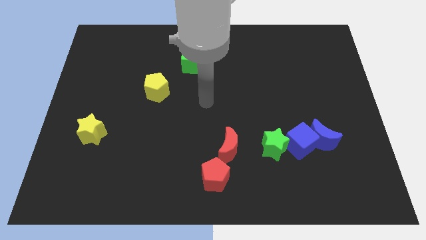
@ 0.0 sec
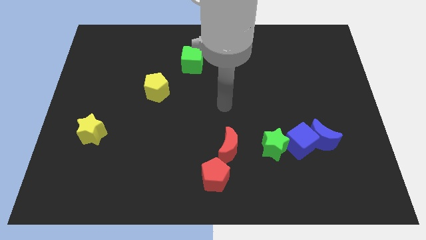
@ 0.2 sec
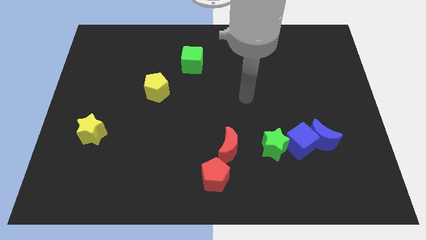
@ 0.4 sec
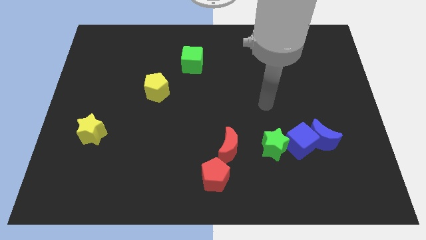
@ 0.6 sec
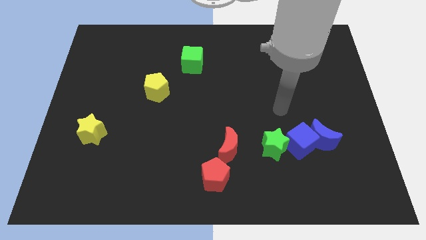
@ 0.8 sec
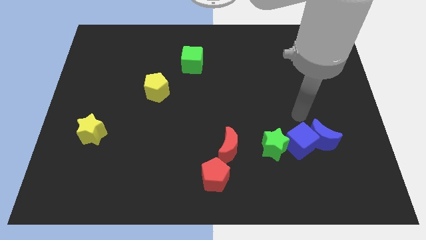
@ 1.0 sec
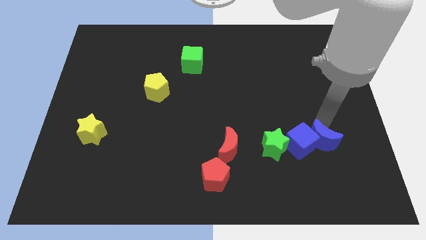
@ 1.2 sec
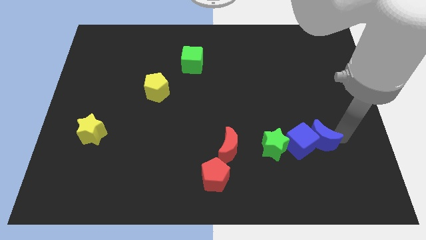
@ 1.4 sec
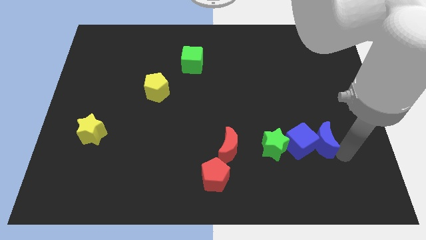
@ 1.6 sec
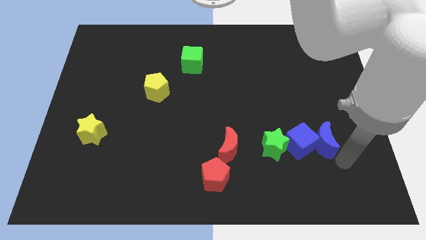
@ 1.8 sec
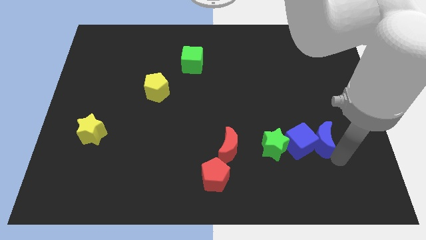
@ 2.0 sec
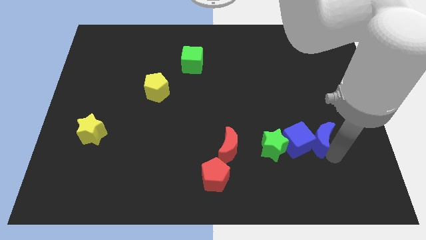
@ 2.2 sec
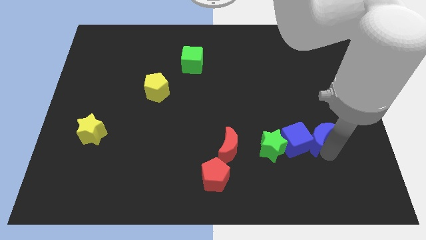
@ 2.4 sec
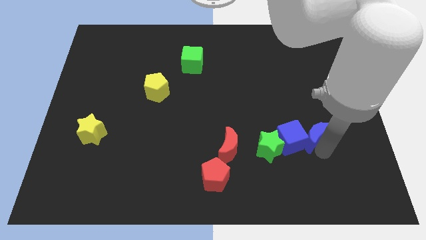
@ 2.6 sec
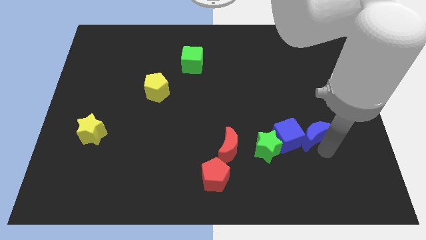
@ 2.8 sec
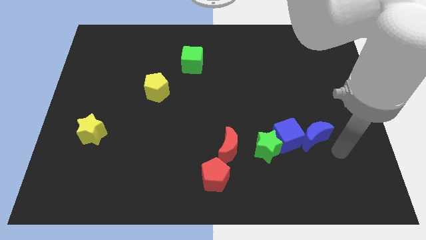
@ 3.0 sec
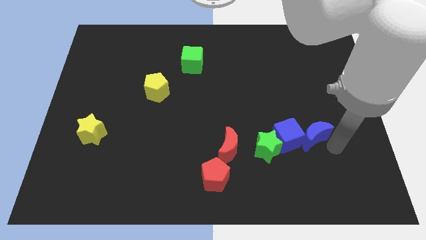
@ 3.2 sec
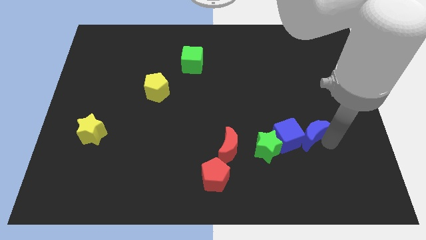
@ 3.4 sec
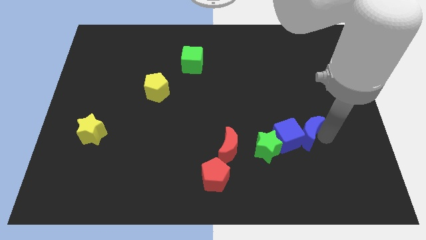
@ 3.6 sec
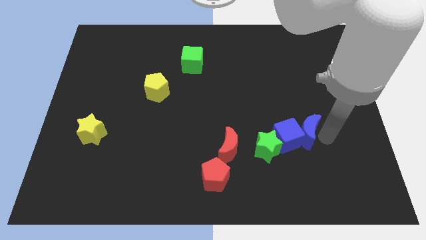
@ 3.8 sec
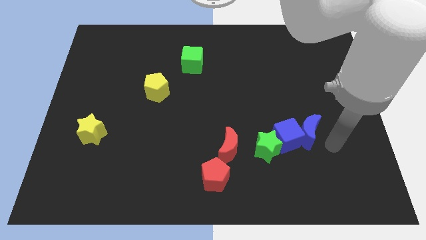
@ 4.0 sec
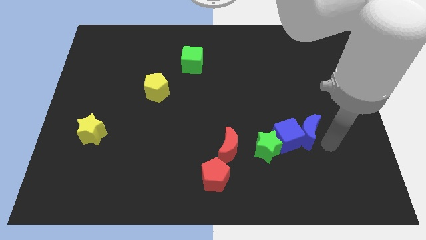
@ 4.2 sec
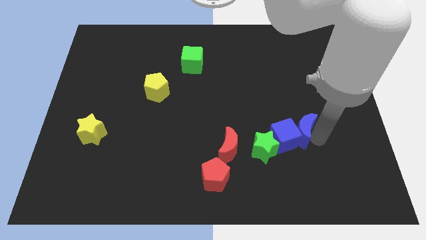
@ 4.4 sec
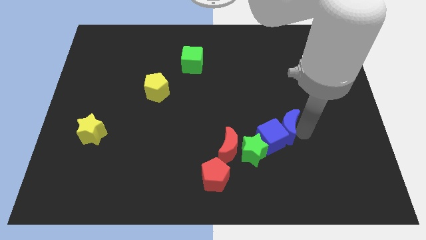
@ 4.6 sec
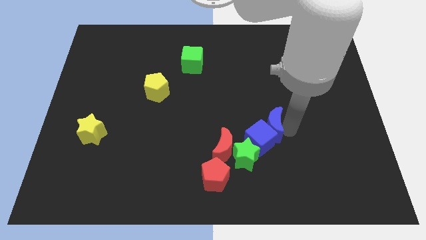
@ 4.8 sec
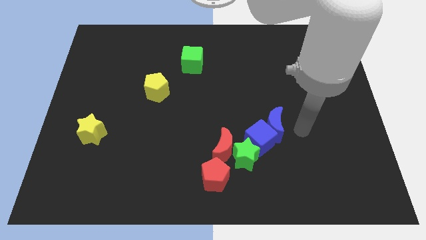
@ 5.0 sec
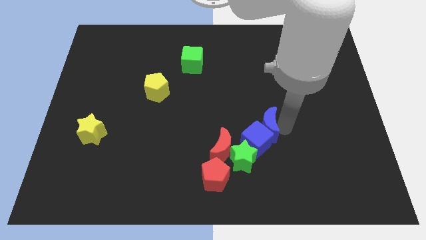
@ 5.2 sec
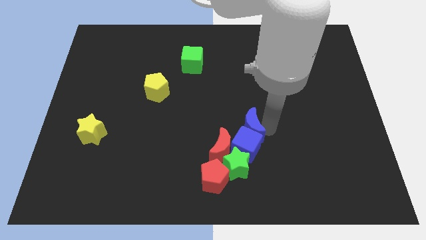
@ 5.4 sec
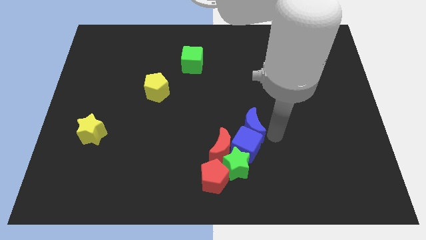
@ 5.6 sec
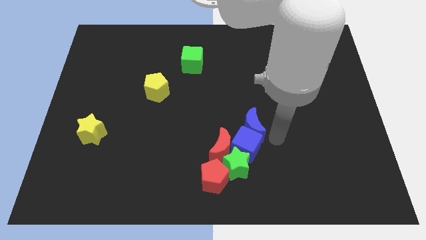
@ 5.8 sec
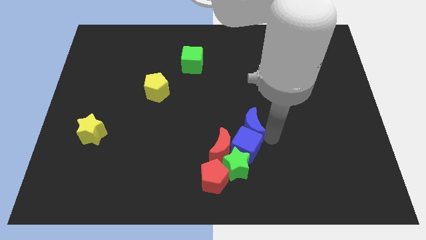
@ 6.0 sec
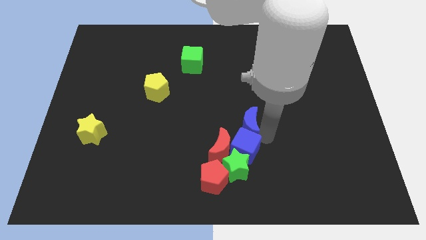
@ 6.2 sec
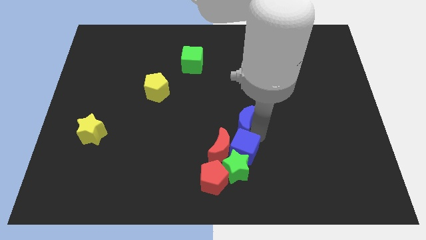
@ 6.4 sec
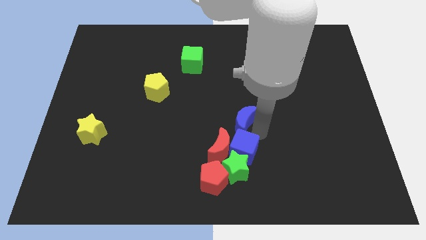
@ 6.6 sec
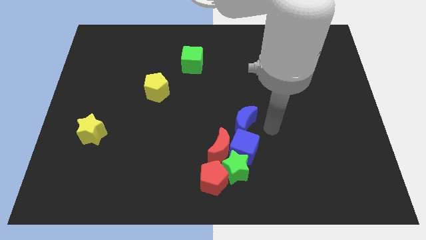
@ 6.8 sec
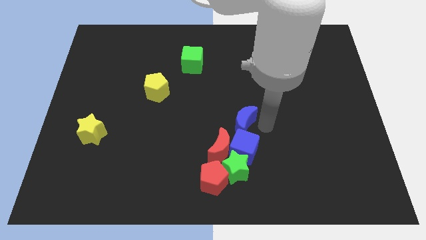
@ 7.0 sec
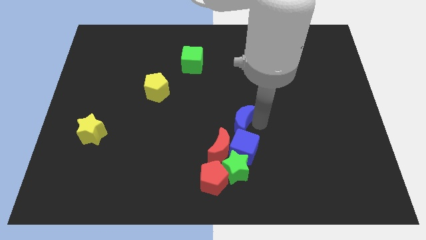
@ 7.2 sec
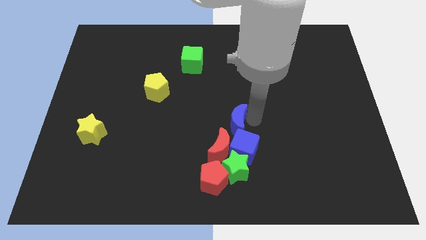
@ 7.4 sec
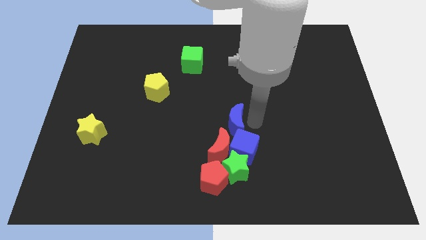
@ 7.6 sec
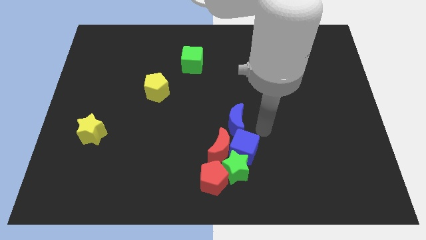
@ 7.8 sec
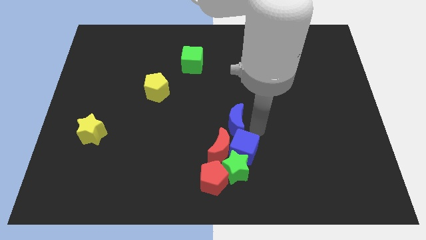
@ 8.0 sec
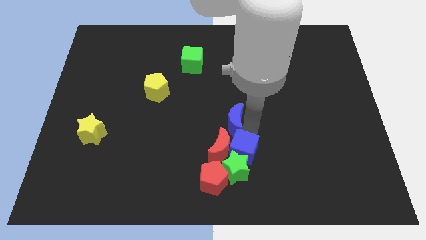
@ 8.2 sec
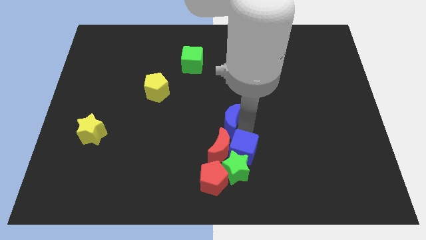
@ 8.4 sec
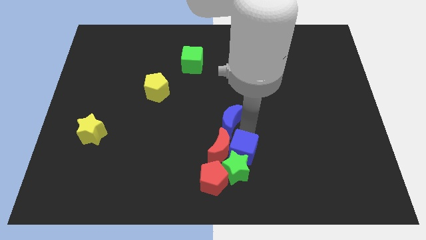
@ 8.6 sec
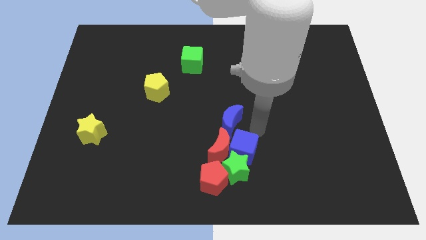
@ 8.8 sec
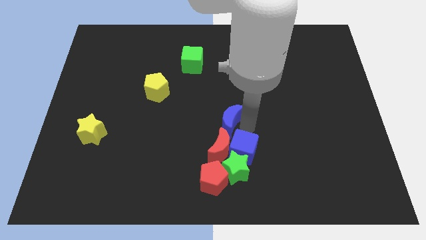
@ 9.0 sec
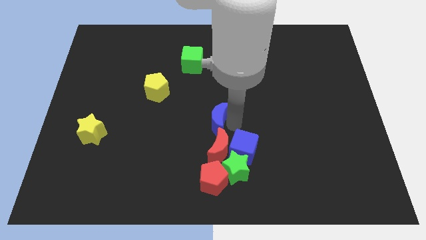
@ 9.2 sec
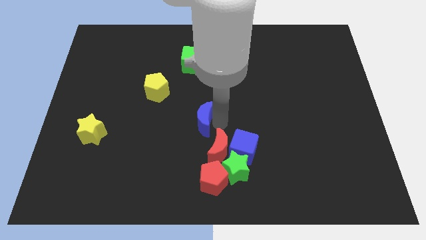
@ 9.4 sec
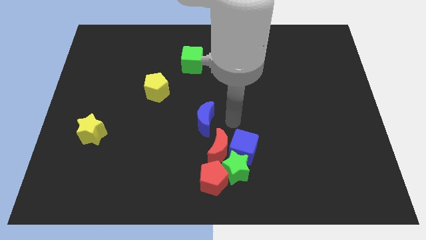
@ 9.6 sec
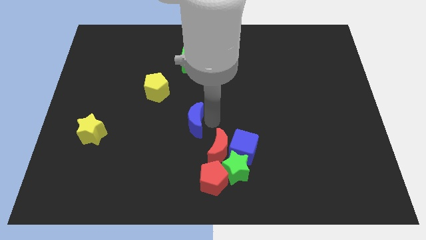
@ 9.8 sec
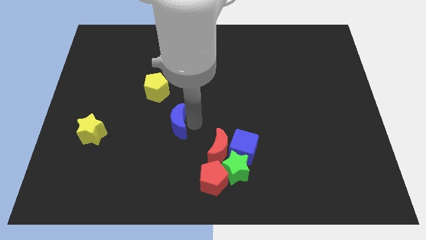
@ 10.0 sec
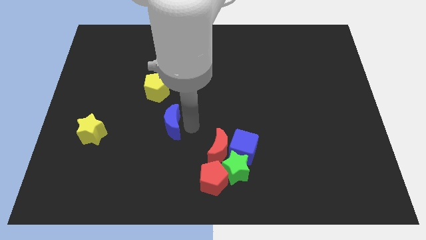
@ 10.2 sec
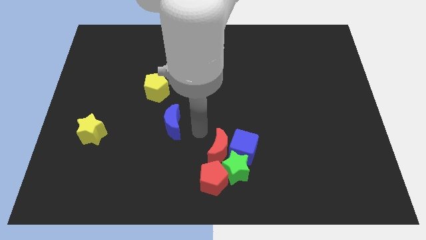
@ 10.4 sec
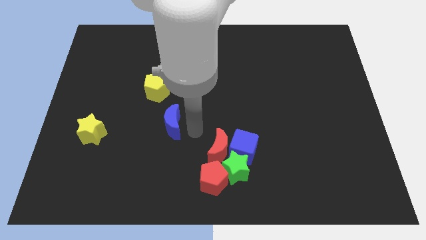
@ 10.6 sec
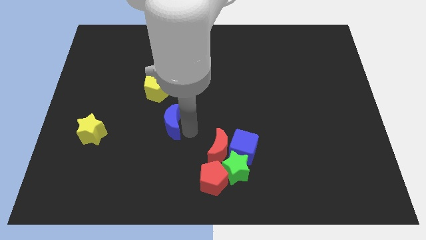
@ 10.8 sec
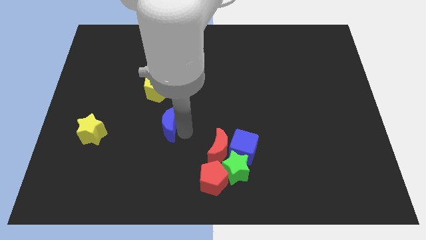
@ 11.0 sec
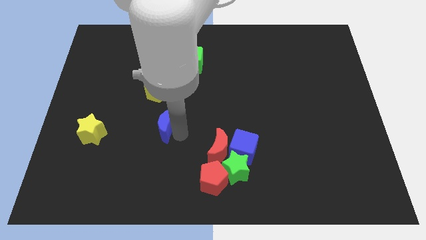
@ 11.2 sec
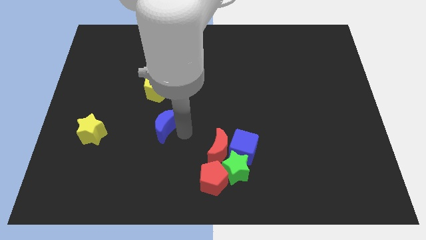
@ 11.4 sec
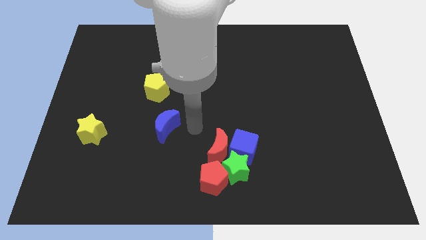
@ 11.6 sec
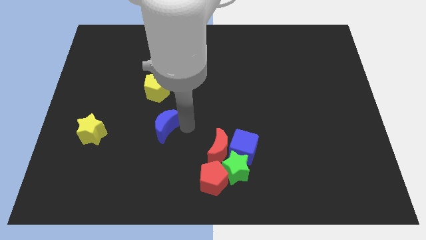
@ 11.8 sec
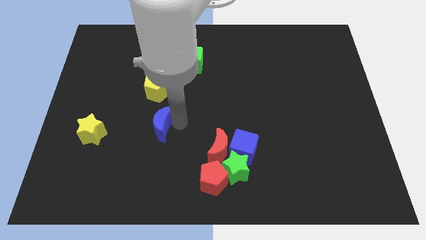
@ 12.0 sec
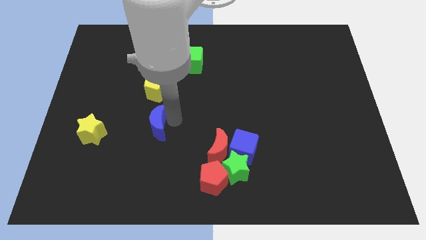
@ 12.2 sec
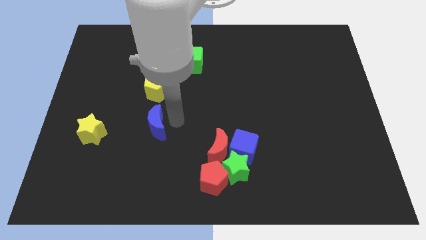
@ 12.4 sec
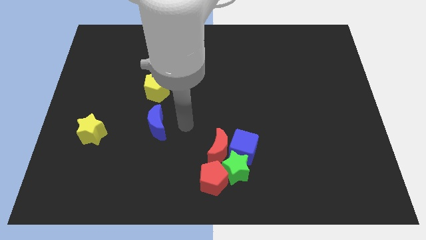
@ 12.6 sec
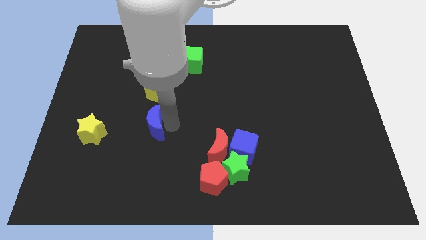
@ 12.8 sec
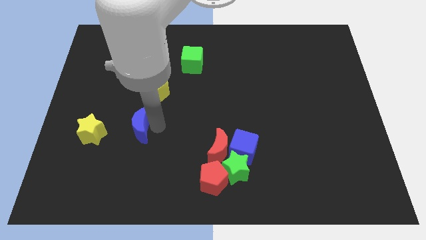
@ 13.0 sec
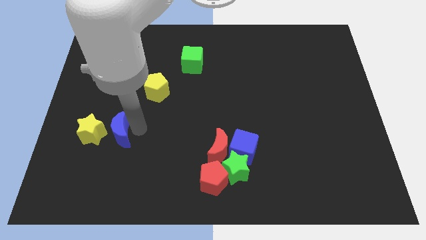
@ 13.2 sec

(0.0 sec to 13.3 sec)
slide the blue moon close to the yellow star

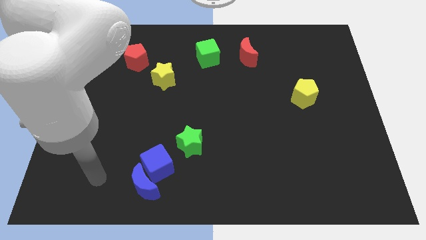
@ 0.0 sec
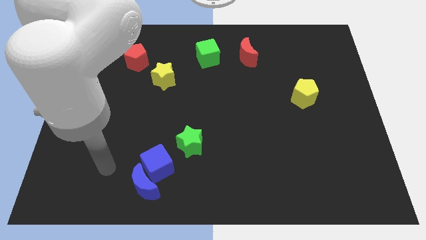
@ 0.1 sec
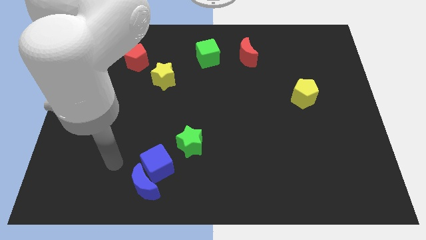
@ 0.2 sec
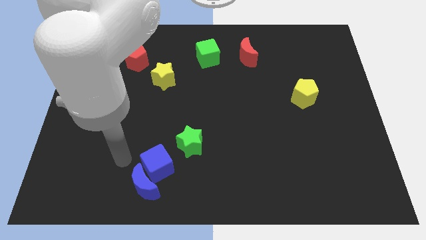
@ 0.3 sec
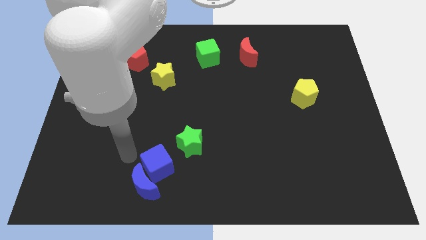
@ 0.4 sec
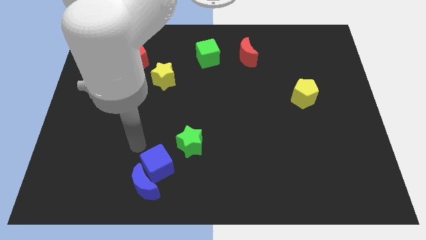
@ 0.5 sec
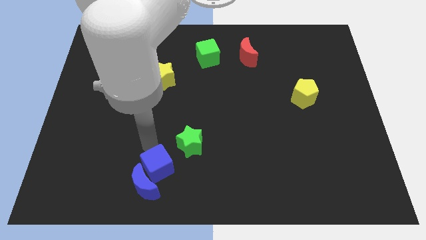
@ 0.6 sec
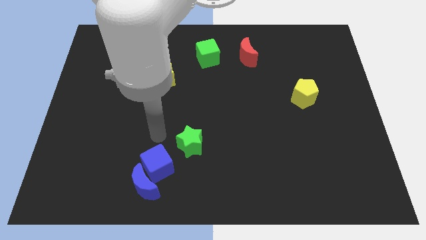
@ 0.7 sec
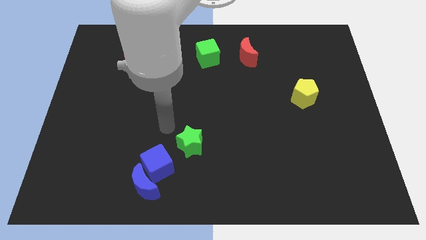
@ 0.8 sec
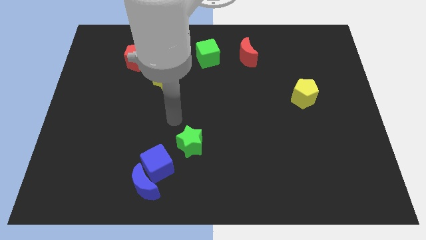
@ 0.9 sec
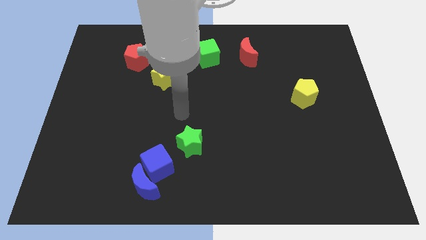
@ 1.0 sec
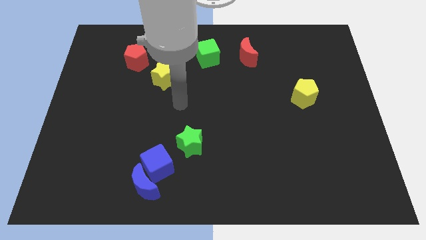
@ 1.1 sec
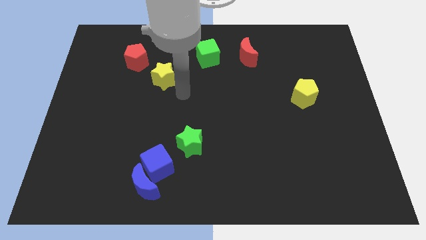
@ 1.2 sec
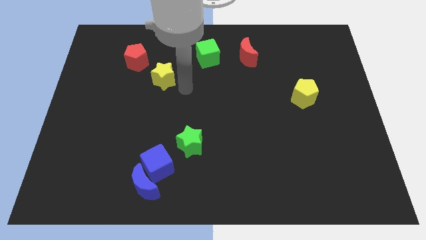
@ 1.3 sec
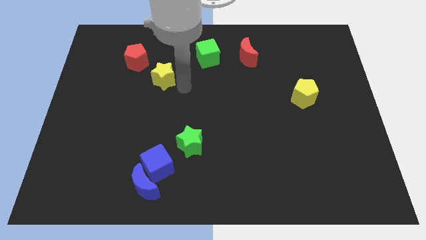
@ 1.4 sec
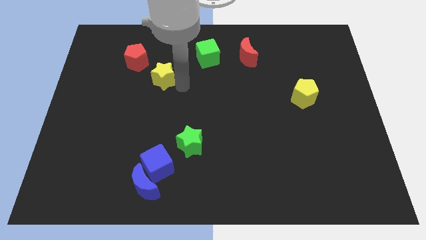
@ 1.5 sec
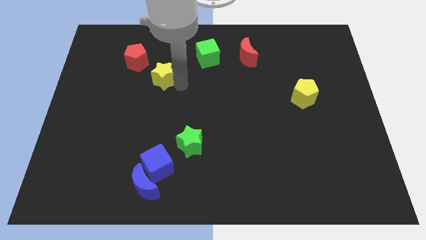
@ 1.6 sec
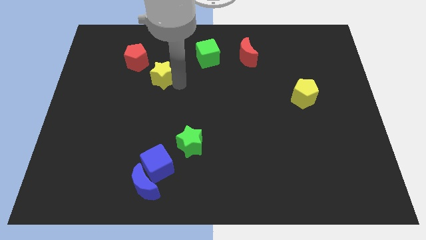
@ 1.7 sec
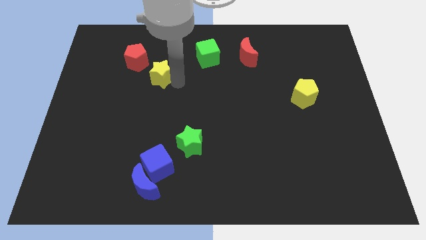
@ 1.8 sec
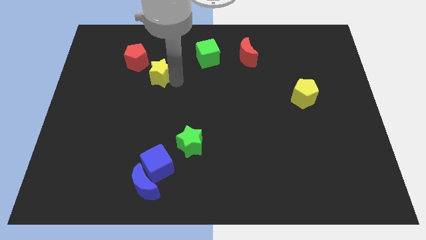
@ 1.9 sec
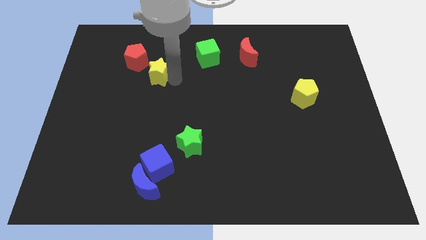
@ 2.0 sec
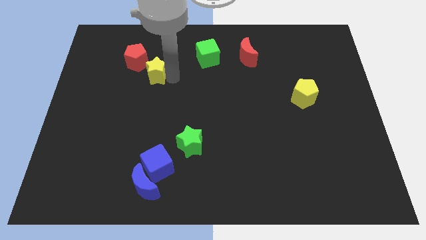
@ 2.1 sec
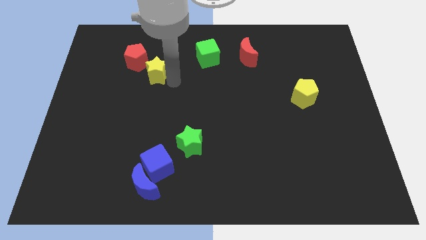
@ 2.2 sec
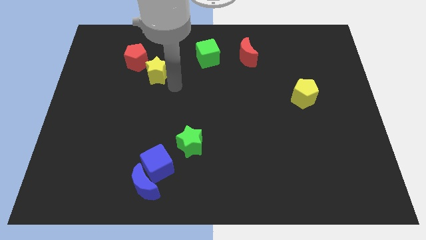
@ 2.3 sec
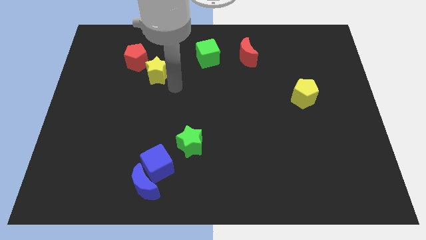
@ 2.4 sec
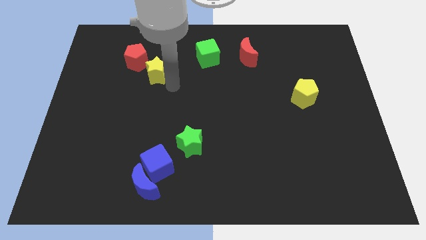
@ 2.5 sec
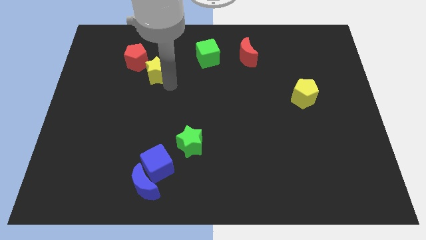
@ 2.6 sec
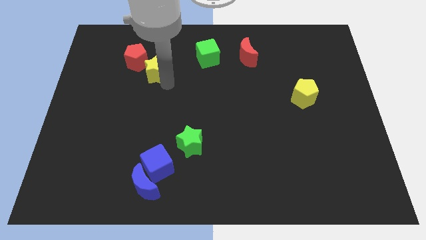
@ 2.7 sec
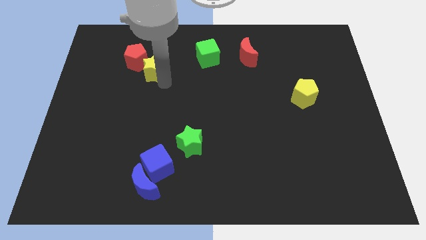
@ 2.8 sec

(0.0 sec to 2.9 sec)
push the yellow star next to the red pentagon
